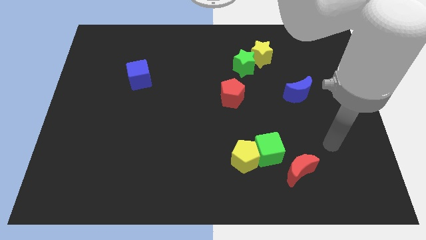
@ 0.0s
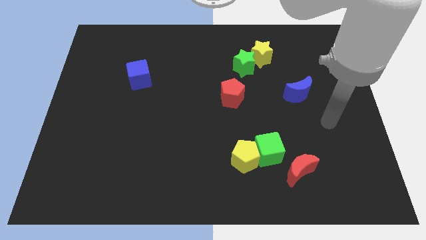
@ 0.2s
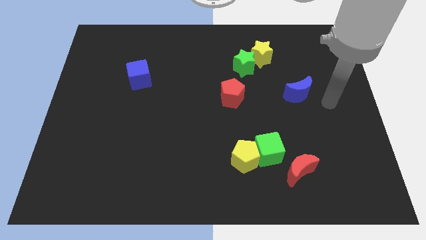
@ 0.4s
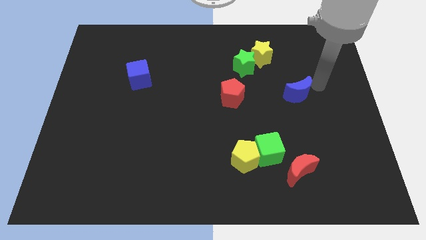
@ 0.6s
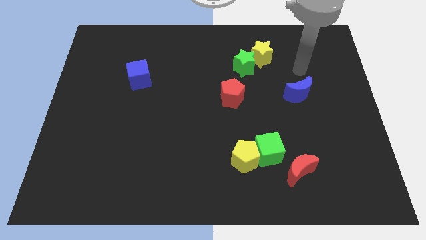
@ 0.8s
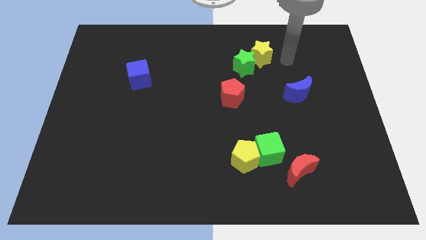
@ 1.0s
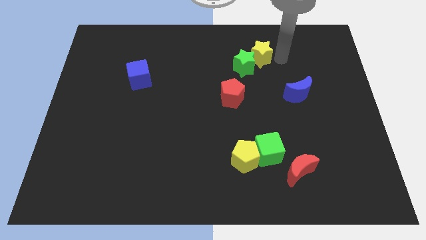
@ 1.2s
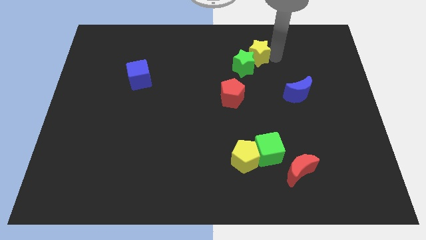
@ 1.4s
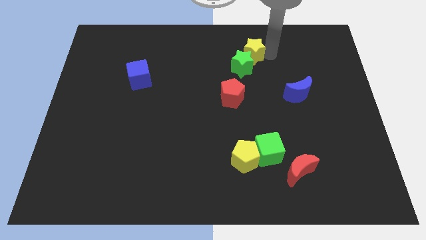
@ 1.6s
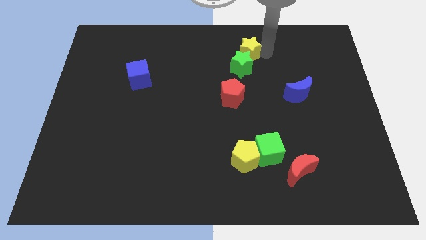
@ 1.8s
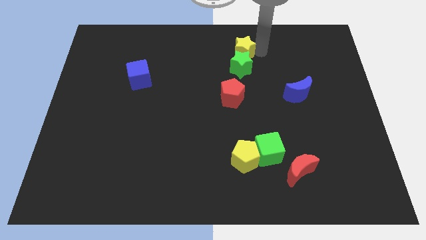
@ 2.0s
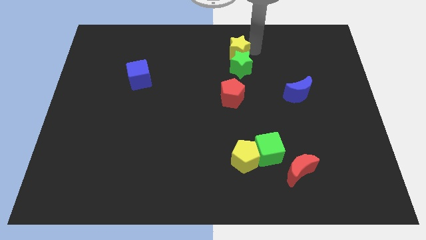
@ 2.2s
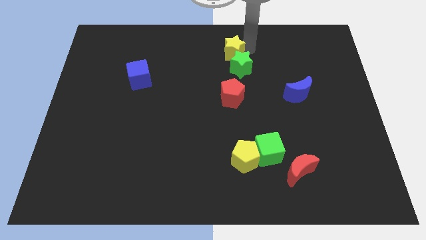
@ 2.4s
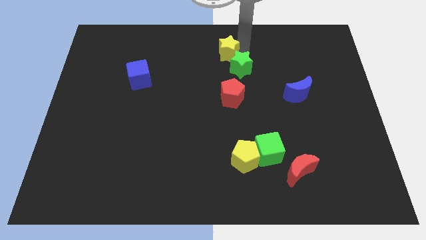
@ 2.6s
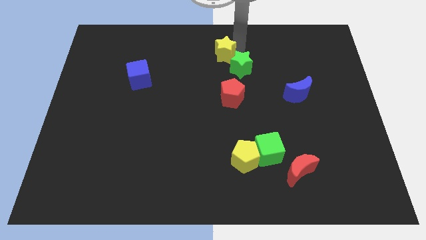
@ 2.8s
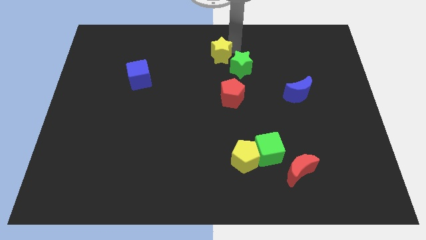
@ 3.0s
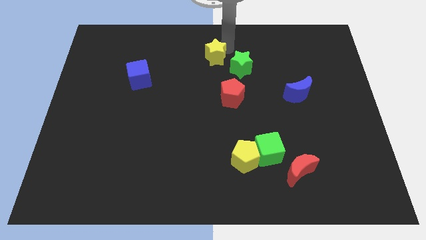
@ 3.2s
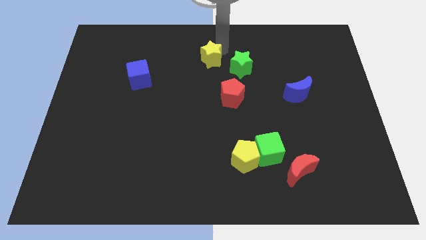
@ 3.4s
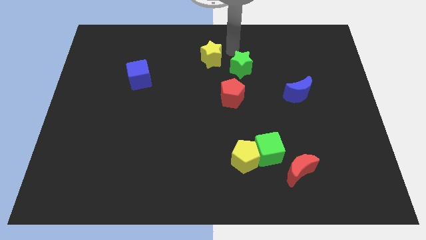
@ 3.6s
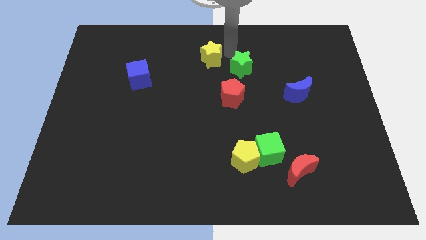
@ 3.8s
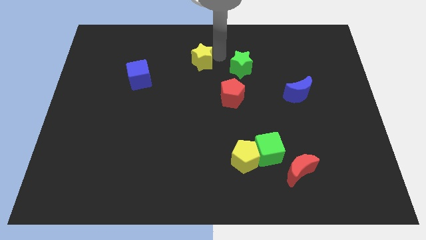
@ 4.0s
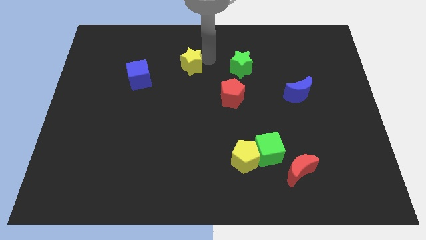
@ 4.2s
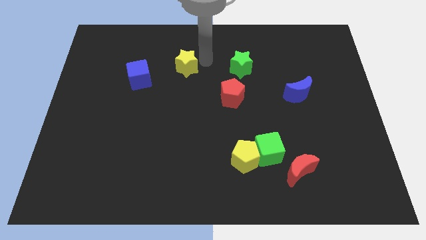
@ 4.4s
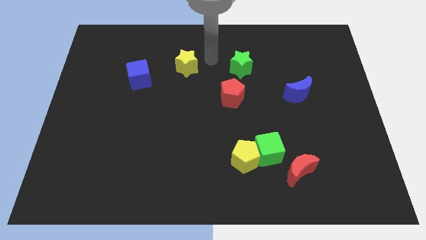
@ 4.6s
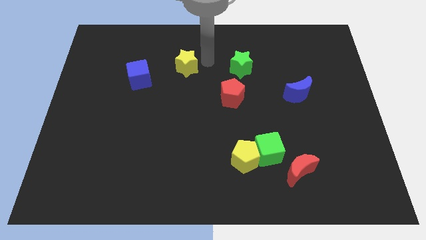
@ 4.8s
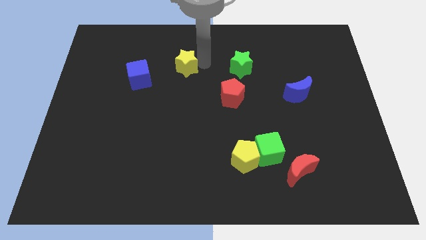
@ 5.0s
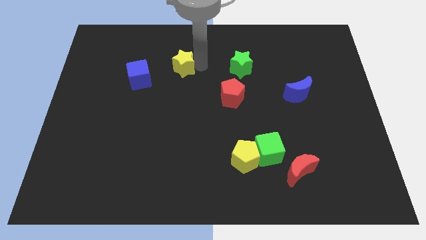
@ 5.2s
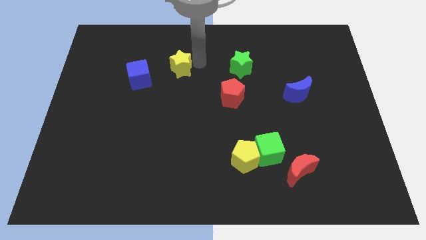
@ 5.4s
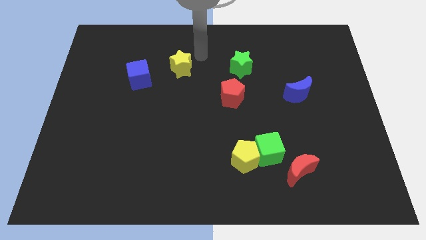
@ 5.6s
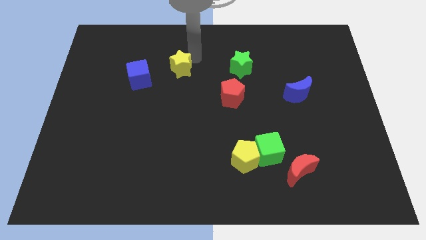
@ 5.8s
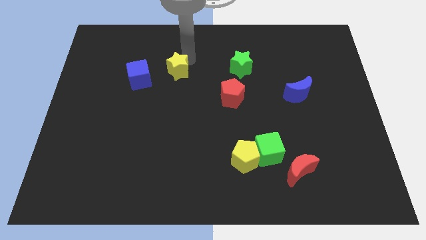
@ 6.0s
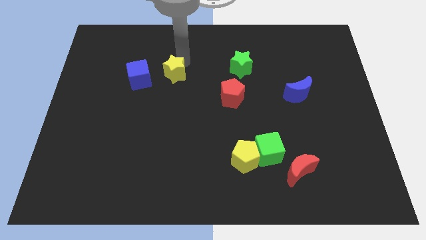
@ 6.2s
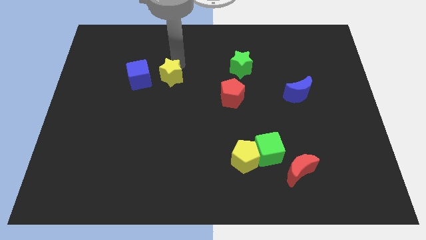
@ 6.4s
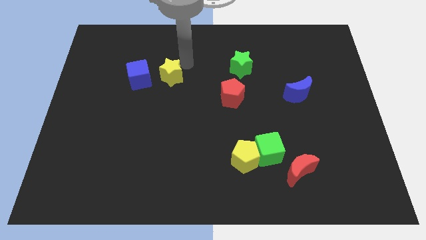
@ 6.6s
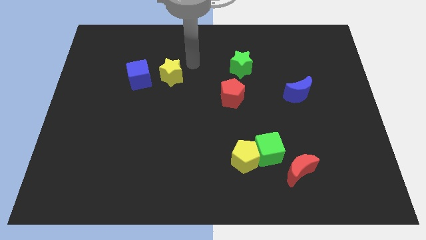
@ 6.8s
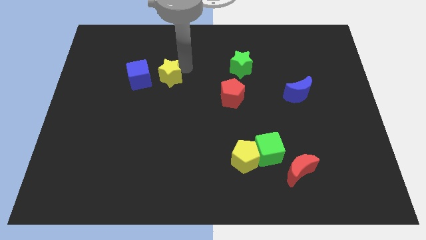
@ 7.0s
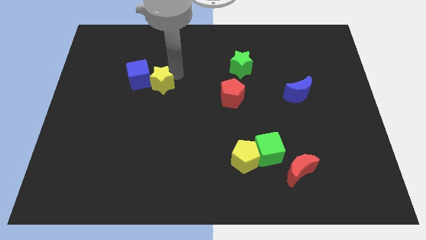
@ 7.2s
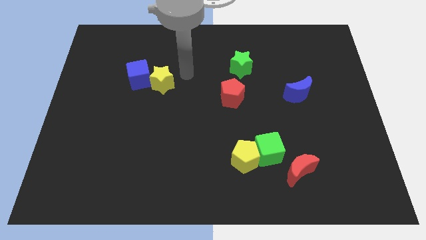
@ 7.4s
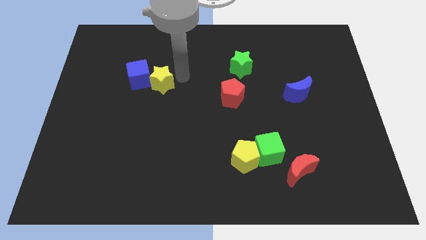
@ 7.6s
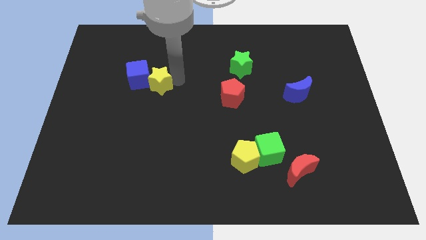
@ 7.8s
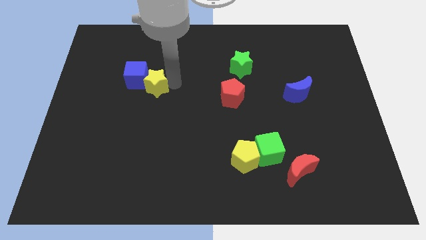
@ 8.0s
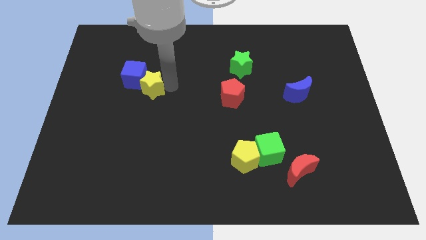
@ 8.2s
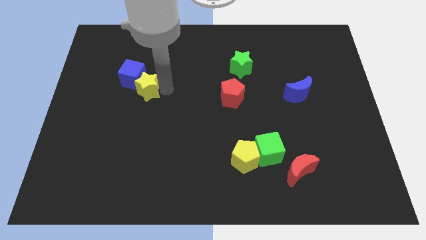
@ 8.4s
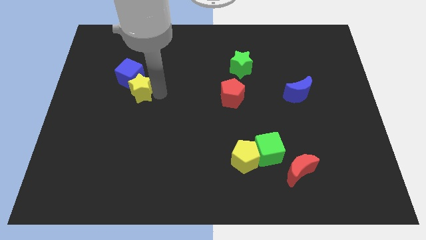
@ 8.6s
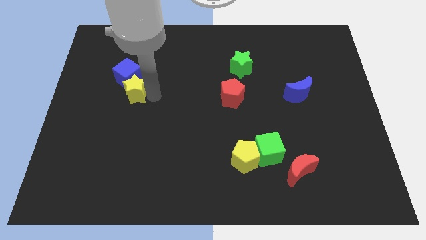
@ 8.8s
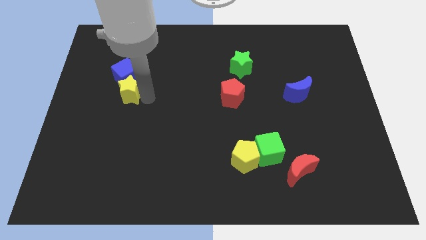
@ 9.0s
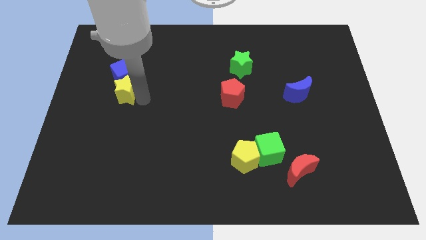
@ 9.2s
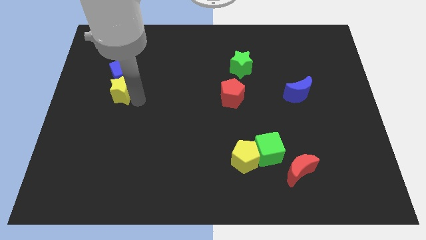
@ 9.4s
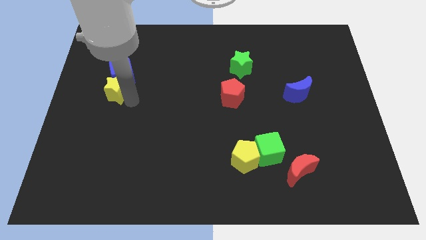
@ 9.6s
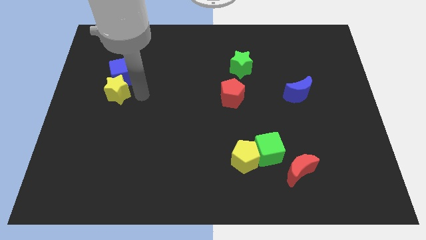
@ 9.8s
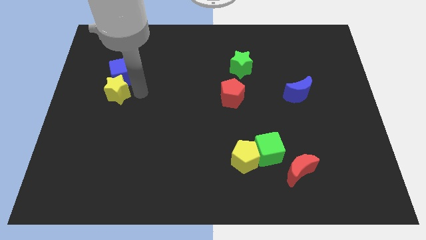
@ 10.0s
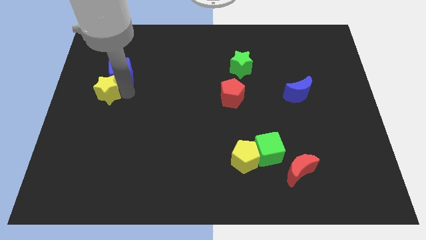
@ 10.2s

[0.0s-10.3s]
put the yellow star to the left side

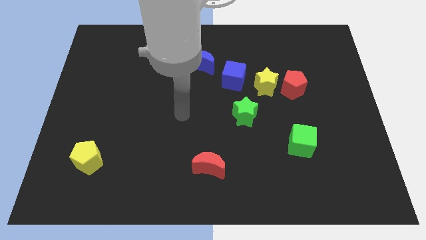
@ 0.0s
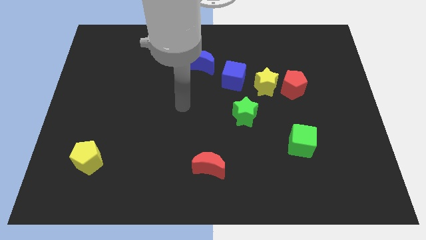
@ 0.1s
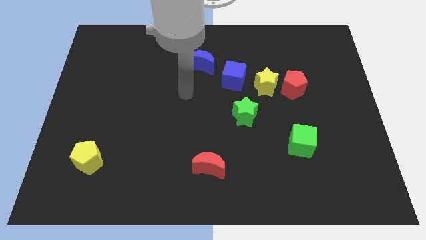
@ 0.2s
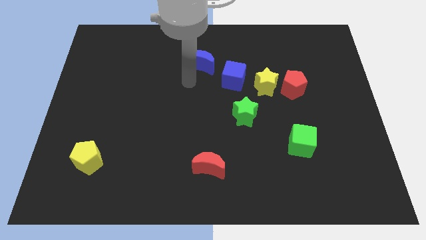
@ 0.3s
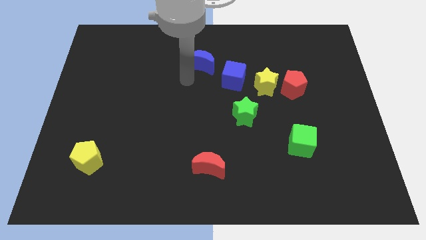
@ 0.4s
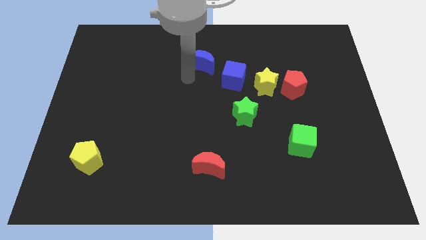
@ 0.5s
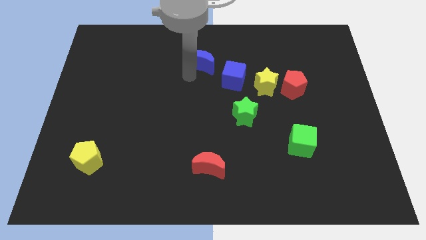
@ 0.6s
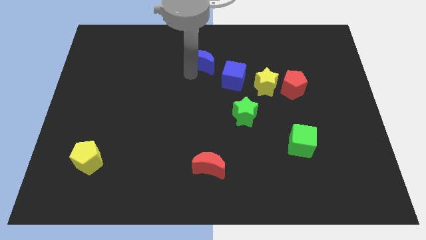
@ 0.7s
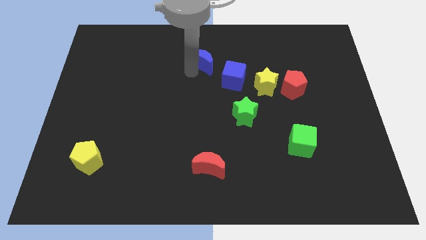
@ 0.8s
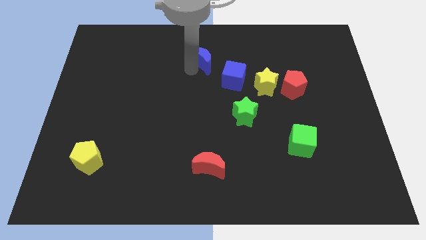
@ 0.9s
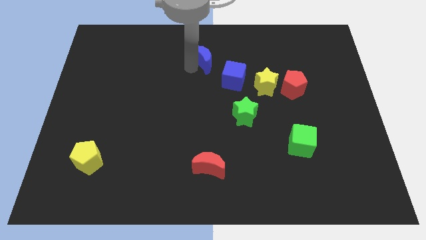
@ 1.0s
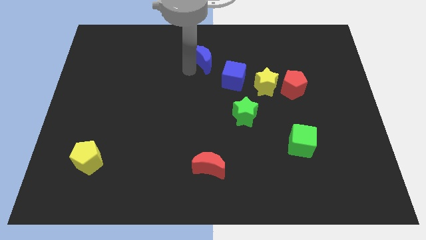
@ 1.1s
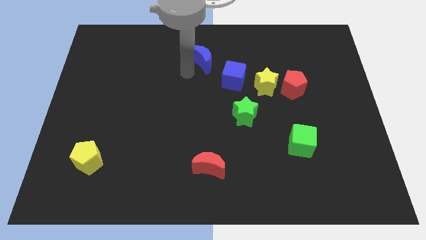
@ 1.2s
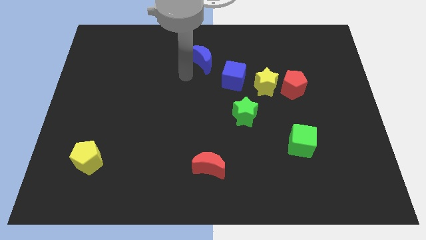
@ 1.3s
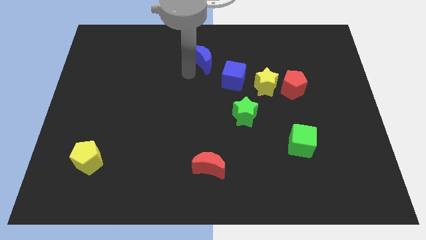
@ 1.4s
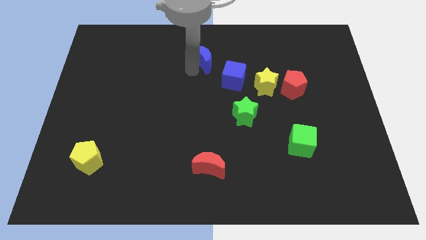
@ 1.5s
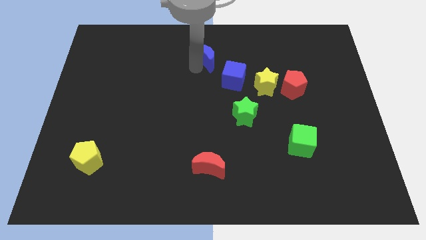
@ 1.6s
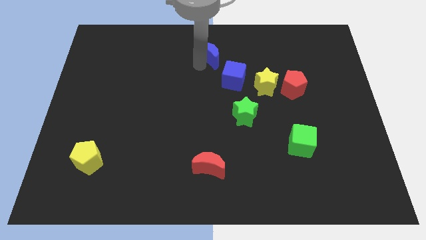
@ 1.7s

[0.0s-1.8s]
move the blue moon to the towards your base

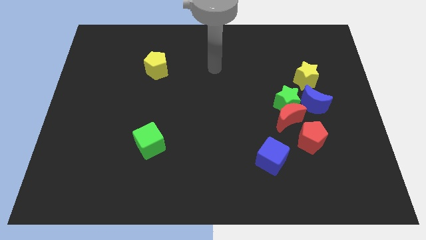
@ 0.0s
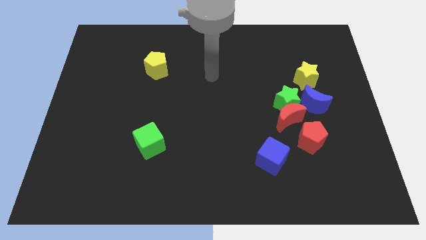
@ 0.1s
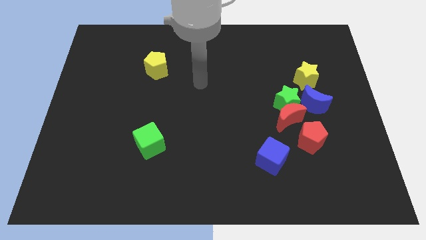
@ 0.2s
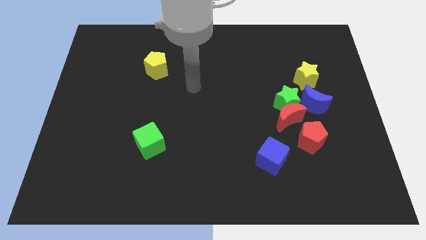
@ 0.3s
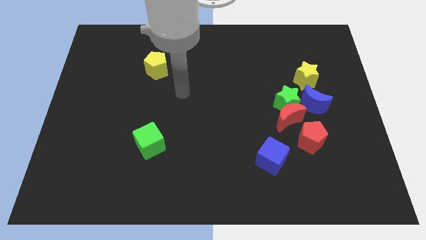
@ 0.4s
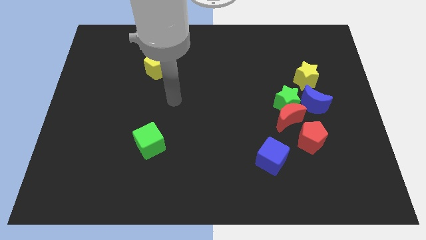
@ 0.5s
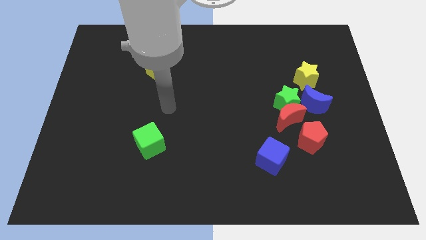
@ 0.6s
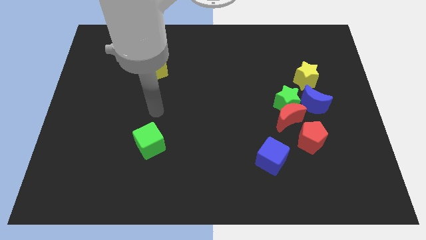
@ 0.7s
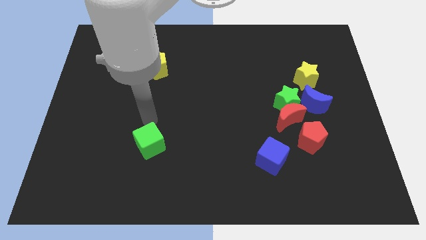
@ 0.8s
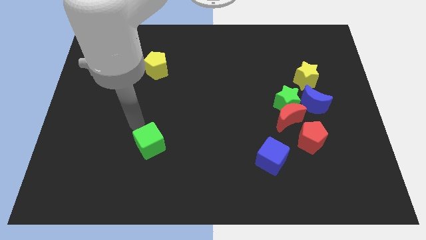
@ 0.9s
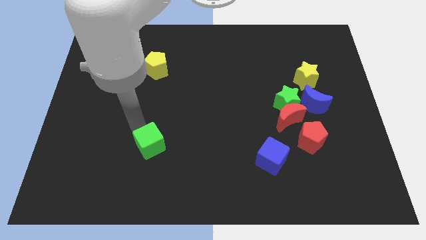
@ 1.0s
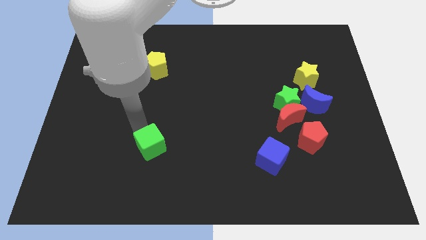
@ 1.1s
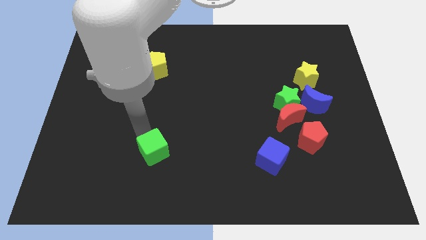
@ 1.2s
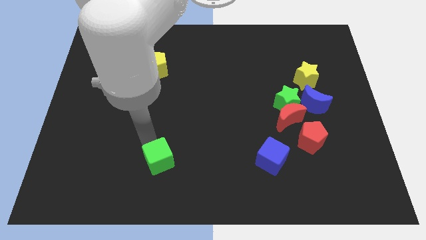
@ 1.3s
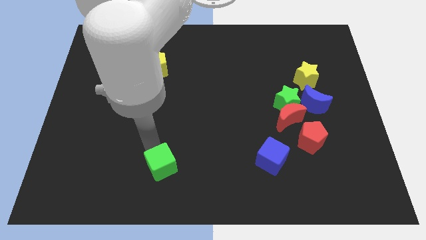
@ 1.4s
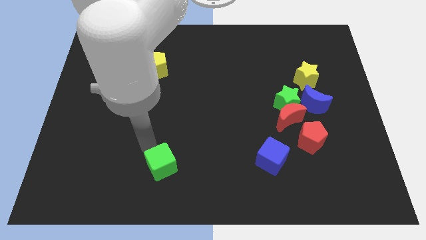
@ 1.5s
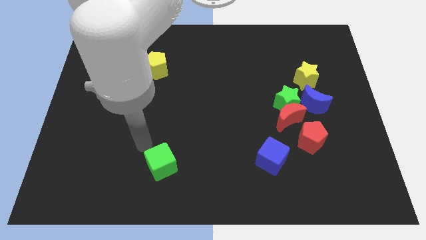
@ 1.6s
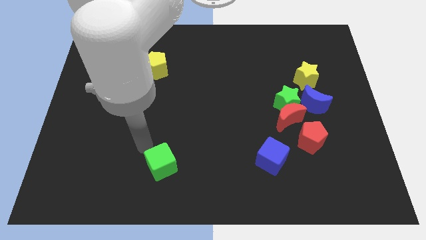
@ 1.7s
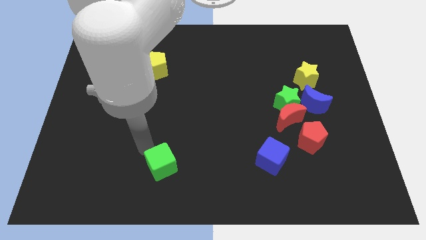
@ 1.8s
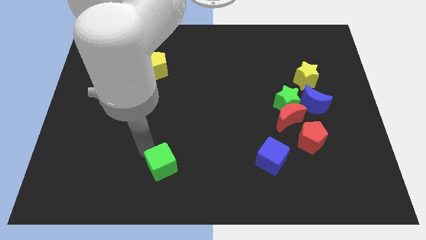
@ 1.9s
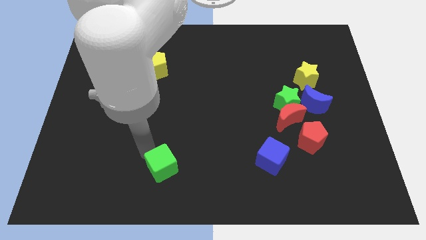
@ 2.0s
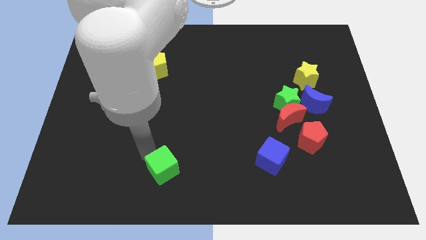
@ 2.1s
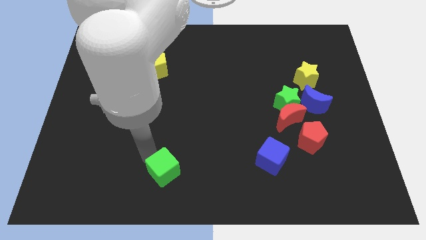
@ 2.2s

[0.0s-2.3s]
push the green cube to the bottom
